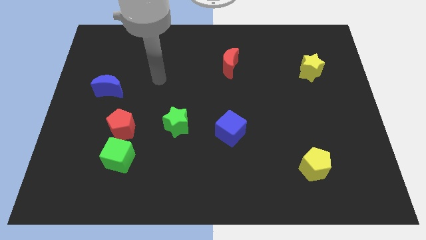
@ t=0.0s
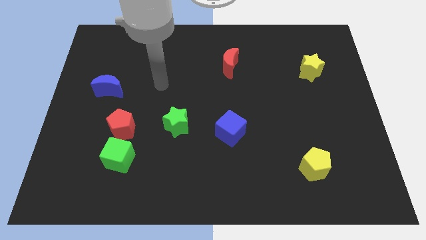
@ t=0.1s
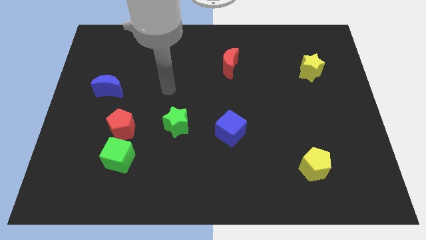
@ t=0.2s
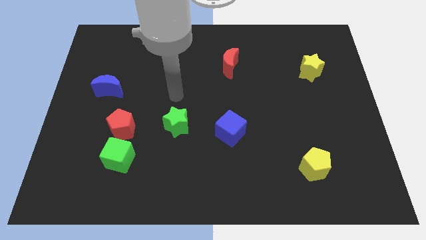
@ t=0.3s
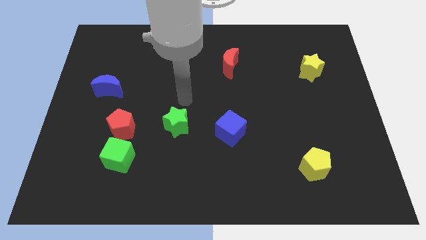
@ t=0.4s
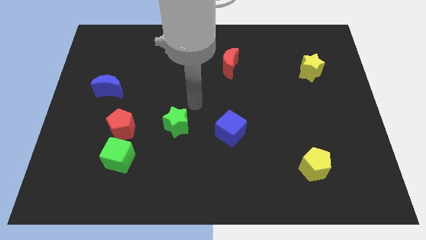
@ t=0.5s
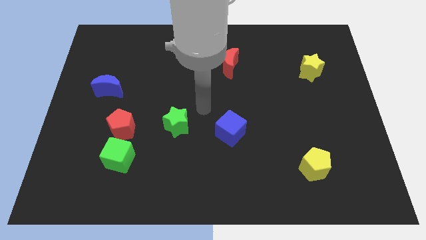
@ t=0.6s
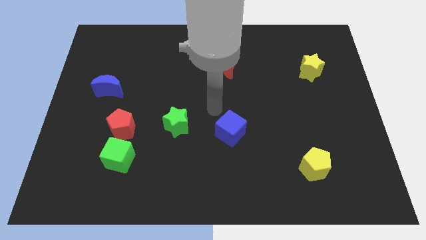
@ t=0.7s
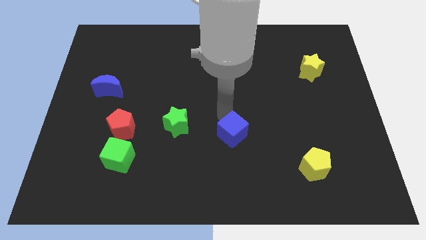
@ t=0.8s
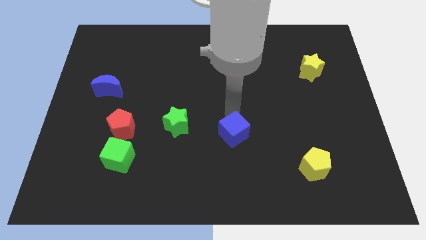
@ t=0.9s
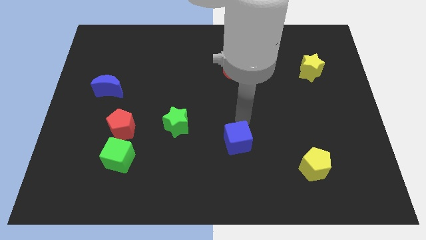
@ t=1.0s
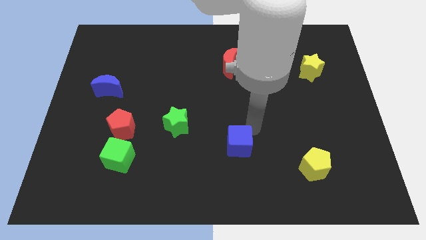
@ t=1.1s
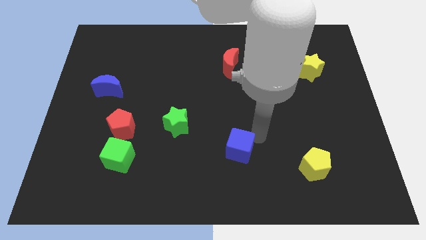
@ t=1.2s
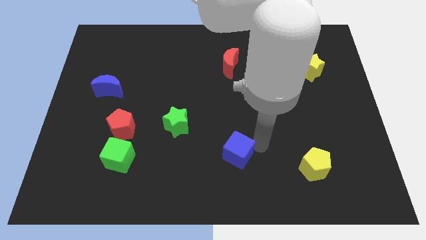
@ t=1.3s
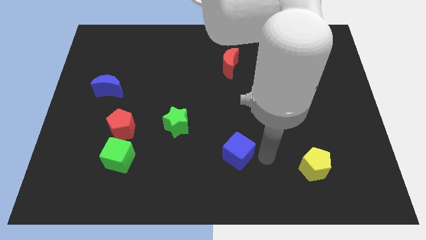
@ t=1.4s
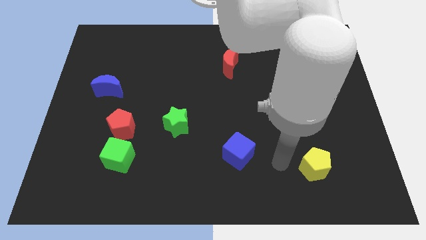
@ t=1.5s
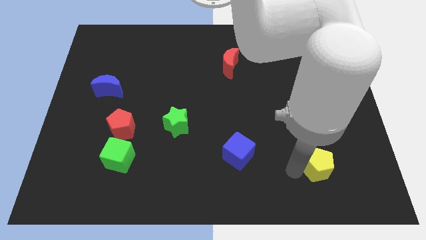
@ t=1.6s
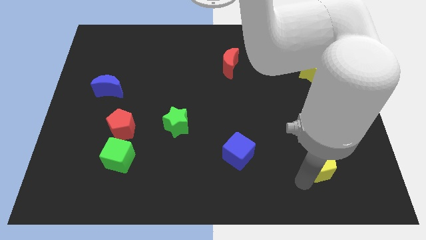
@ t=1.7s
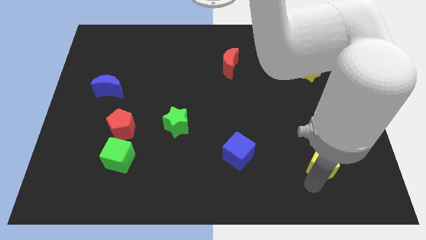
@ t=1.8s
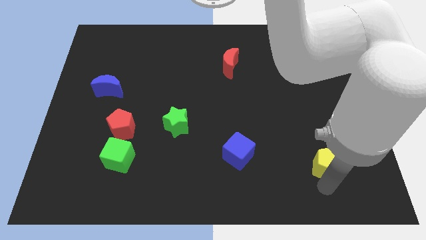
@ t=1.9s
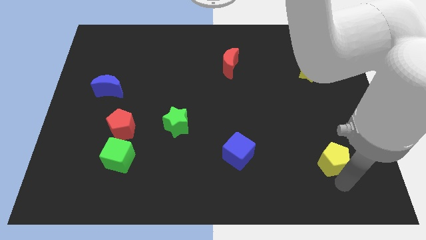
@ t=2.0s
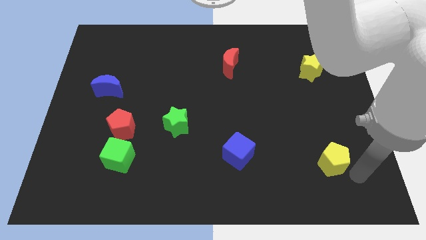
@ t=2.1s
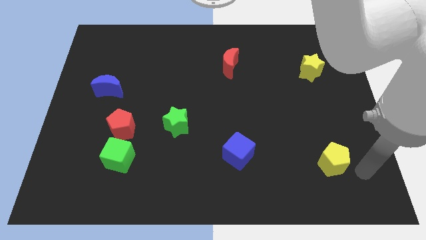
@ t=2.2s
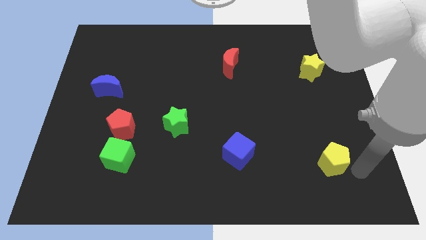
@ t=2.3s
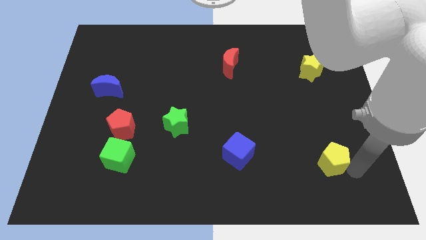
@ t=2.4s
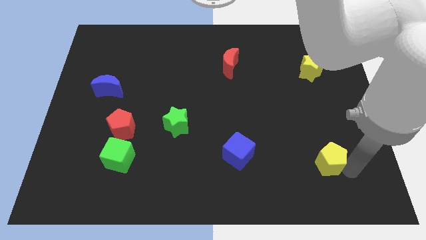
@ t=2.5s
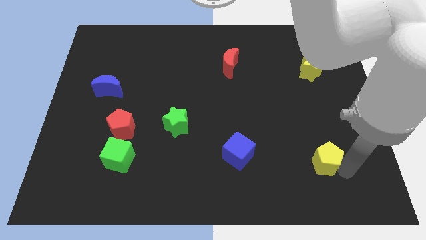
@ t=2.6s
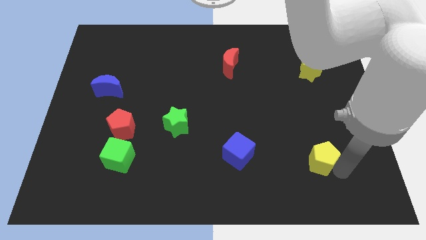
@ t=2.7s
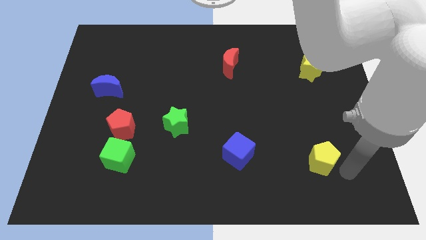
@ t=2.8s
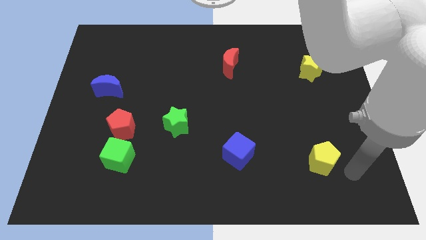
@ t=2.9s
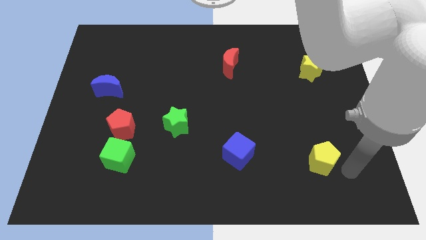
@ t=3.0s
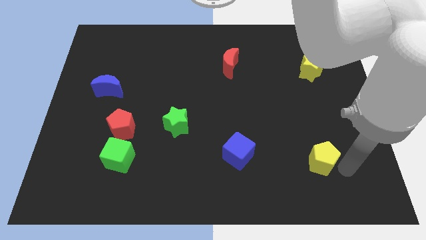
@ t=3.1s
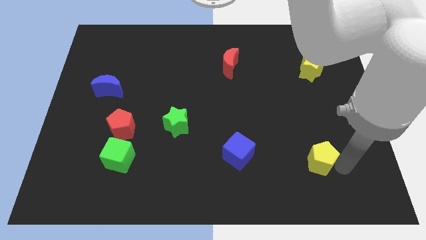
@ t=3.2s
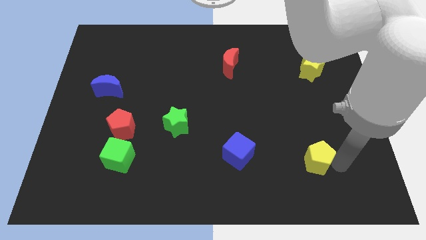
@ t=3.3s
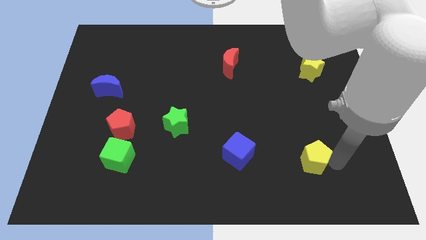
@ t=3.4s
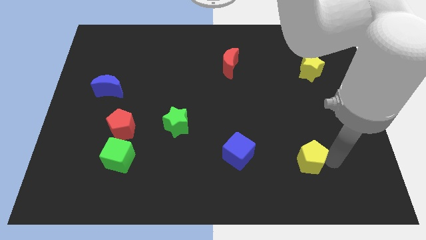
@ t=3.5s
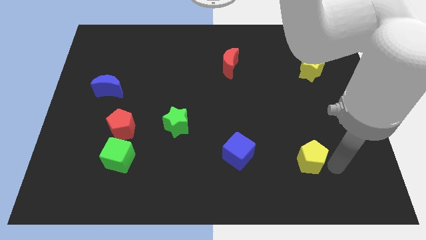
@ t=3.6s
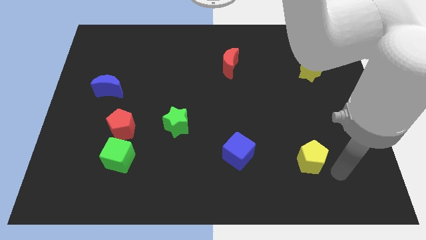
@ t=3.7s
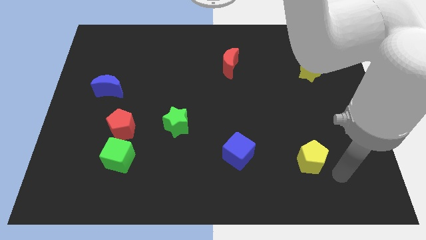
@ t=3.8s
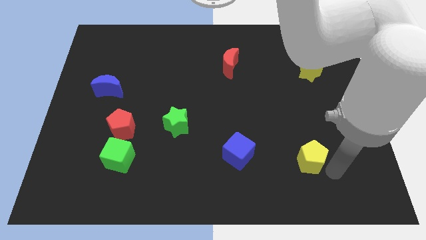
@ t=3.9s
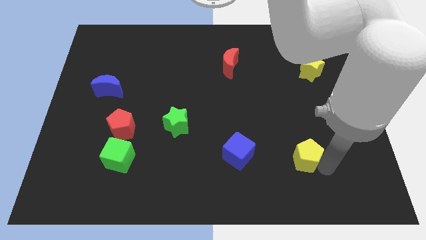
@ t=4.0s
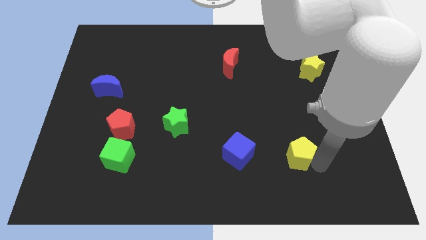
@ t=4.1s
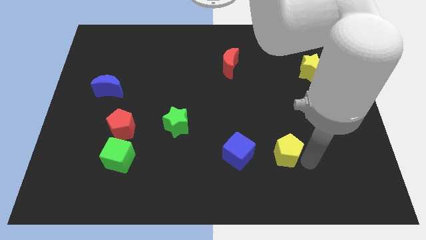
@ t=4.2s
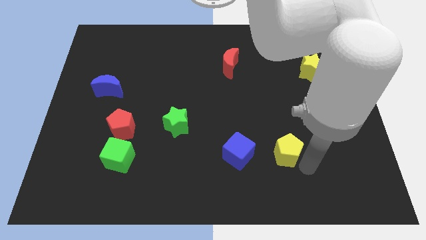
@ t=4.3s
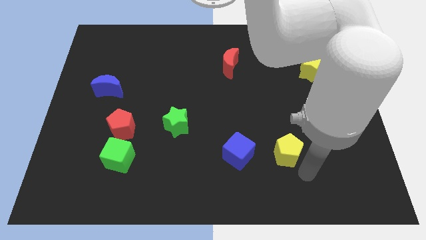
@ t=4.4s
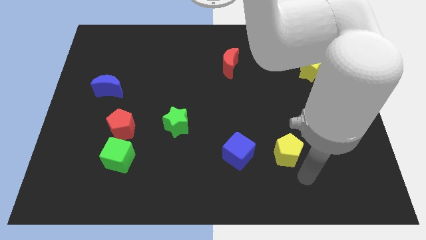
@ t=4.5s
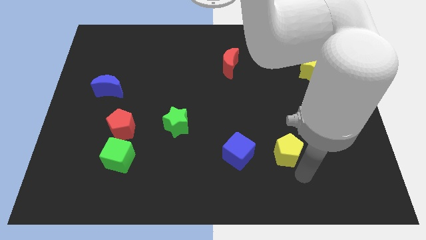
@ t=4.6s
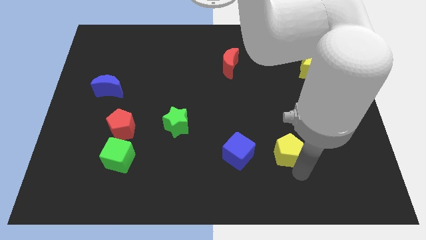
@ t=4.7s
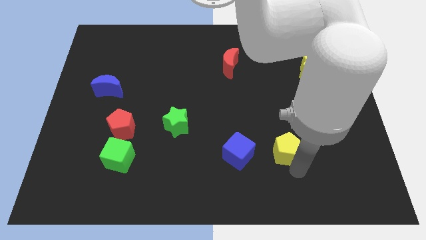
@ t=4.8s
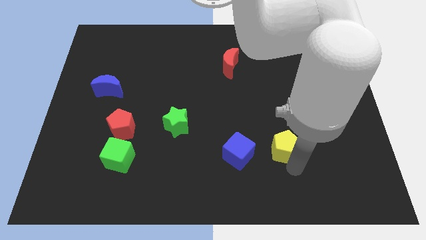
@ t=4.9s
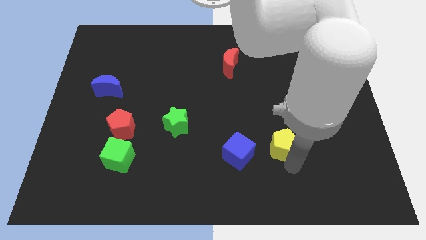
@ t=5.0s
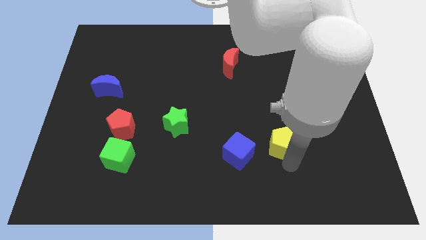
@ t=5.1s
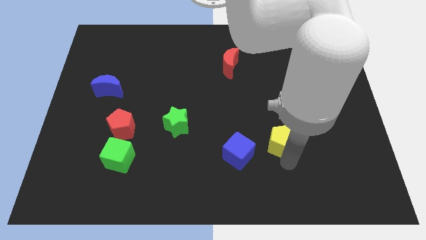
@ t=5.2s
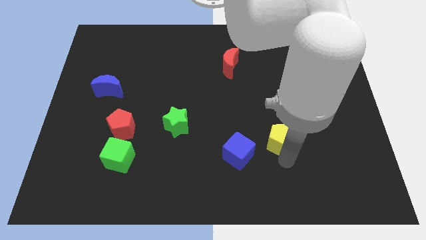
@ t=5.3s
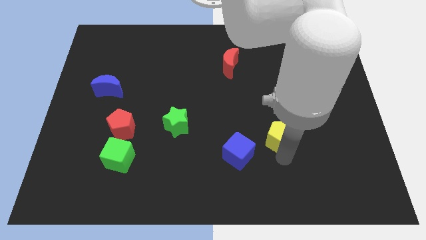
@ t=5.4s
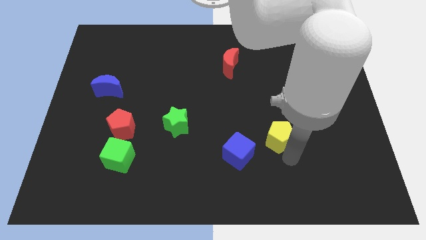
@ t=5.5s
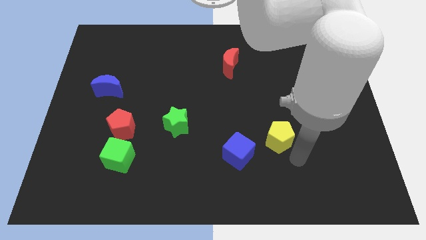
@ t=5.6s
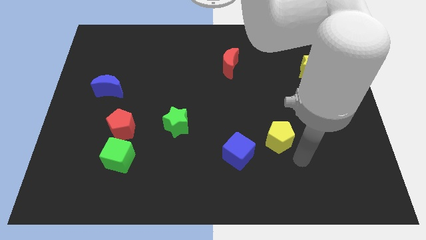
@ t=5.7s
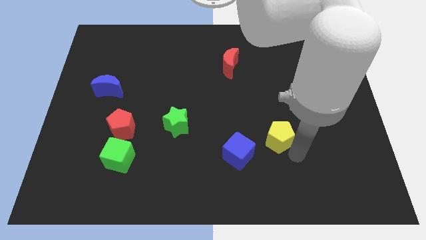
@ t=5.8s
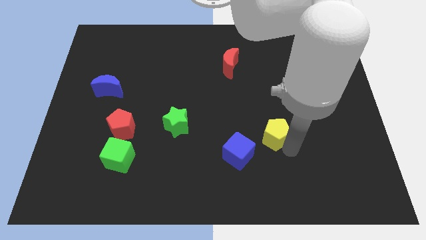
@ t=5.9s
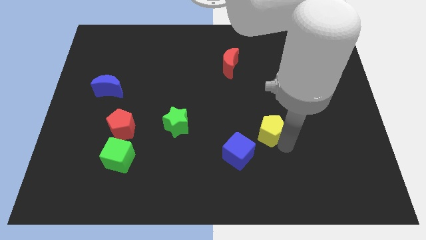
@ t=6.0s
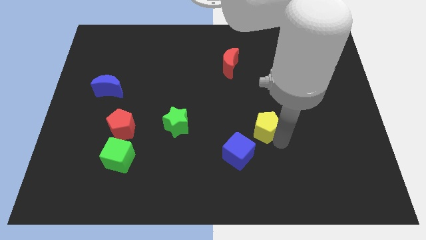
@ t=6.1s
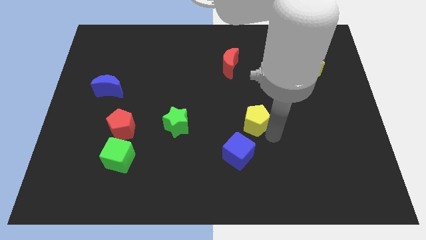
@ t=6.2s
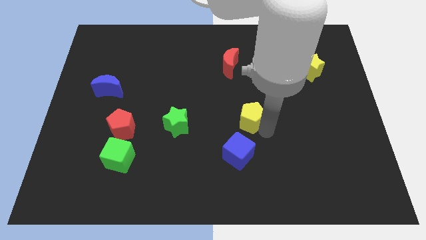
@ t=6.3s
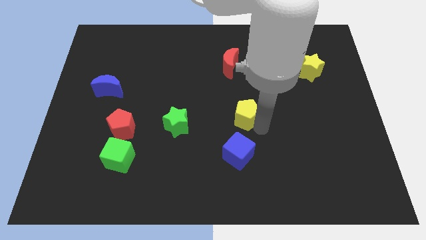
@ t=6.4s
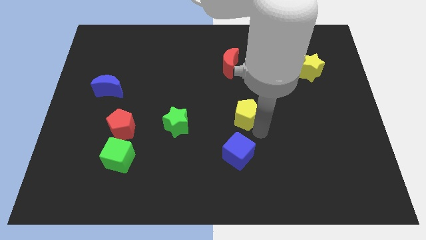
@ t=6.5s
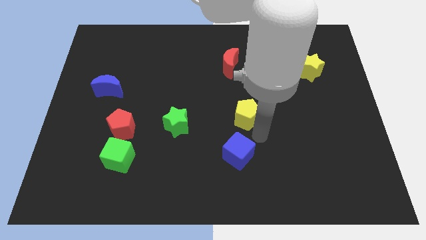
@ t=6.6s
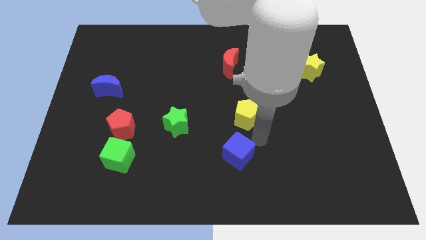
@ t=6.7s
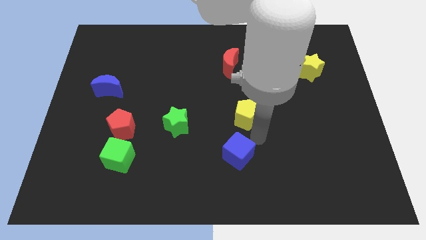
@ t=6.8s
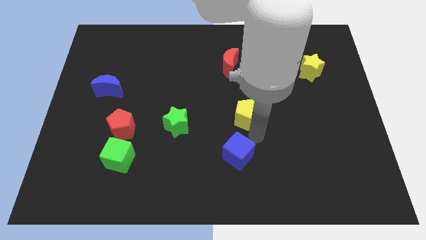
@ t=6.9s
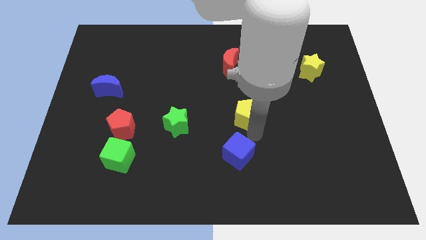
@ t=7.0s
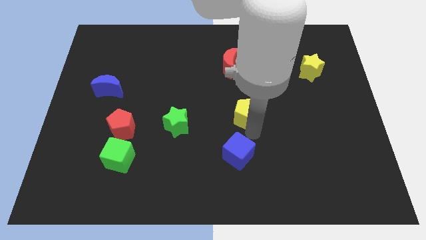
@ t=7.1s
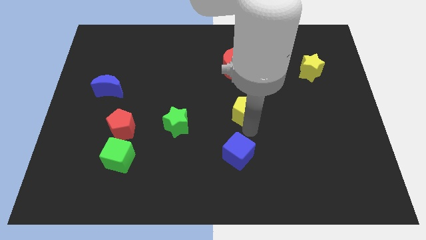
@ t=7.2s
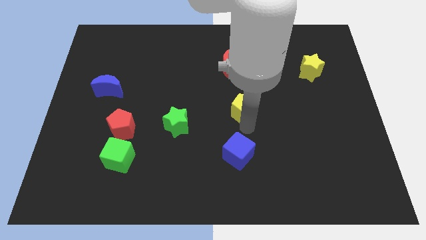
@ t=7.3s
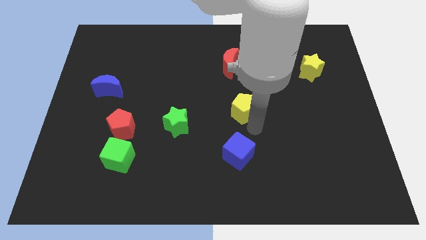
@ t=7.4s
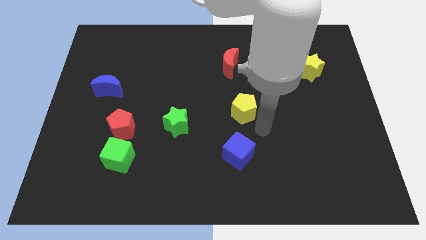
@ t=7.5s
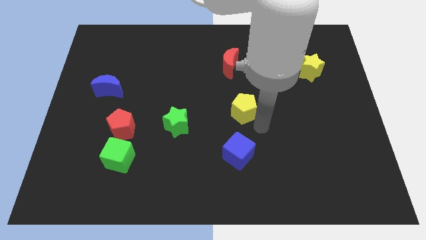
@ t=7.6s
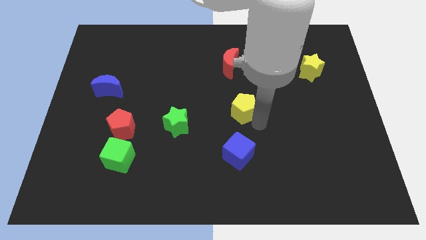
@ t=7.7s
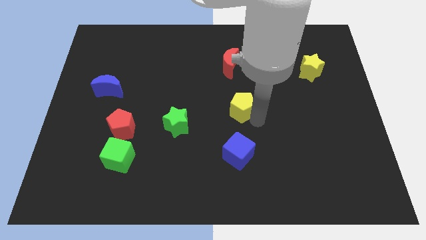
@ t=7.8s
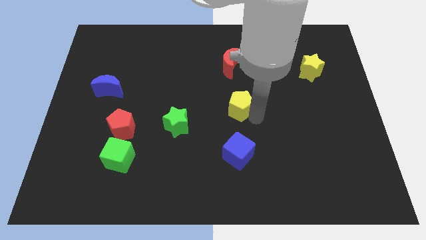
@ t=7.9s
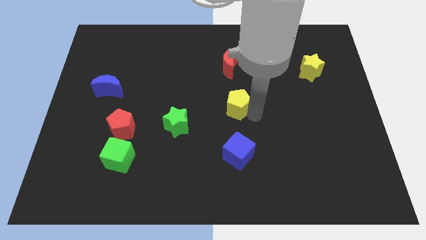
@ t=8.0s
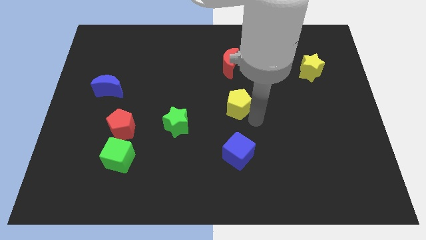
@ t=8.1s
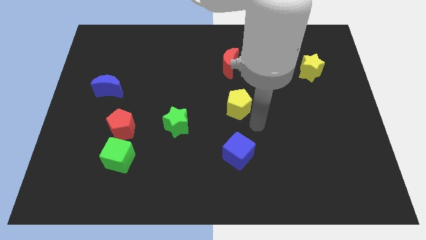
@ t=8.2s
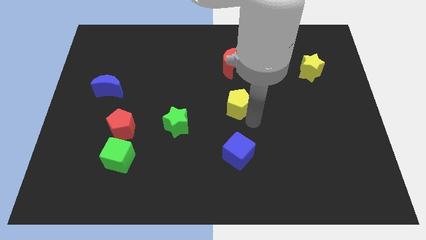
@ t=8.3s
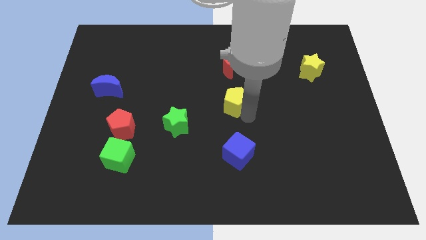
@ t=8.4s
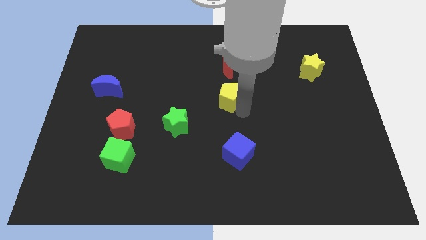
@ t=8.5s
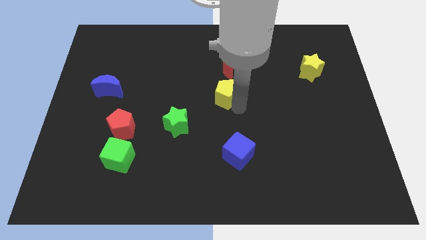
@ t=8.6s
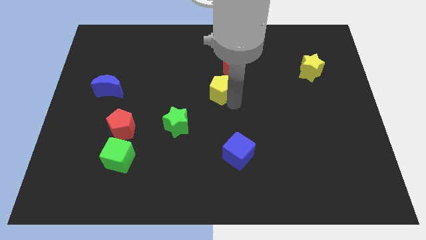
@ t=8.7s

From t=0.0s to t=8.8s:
put the yellow pentagon diagonally down and to the left of the red moon
